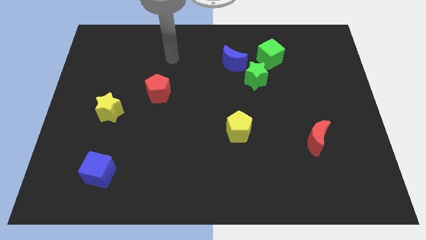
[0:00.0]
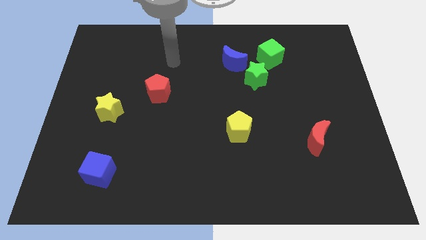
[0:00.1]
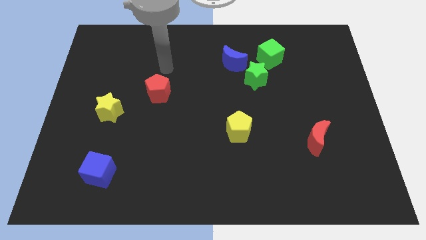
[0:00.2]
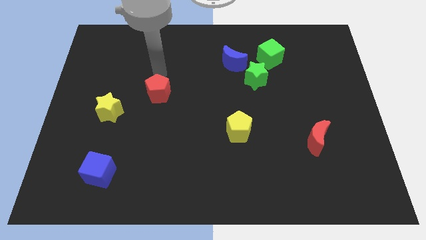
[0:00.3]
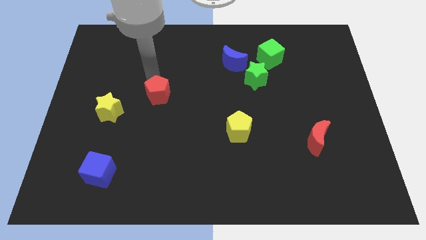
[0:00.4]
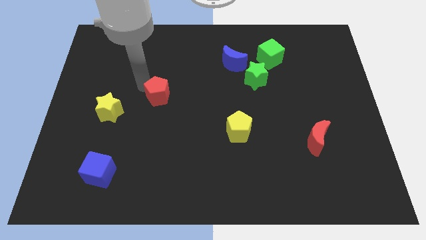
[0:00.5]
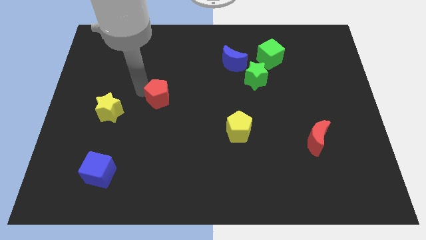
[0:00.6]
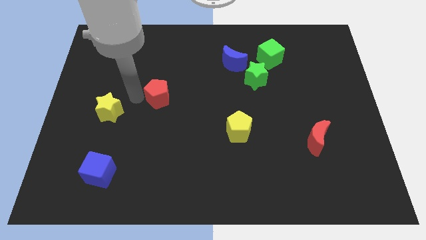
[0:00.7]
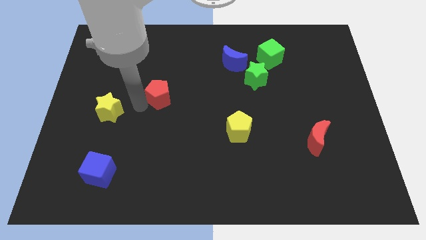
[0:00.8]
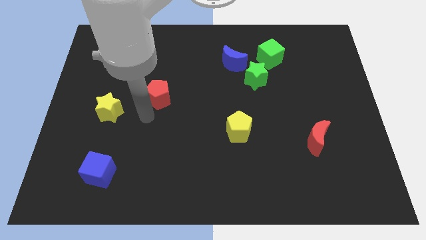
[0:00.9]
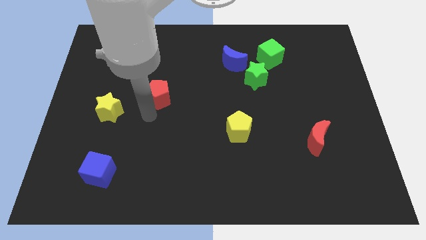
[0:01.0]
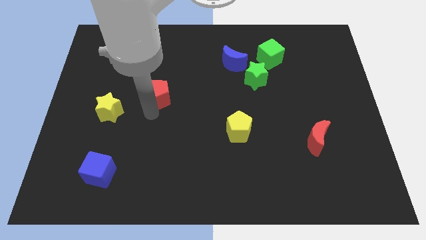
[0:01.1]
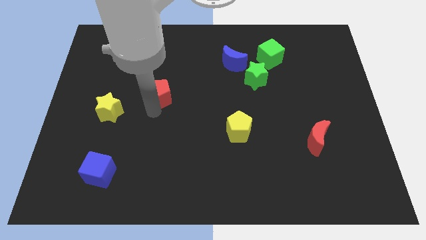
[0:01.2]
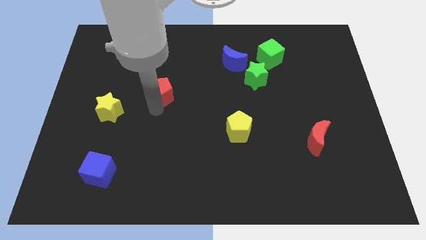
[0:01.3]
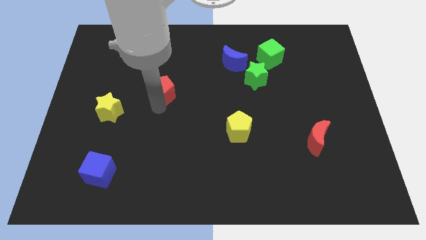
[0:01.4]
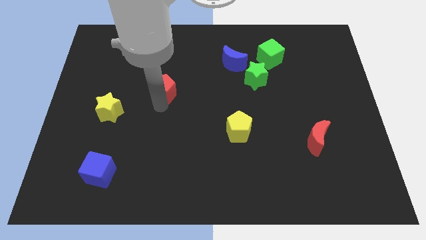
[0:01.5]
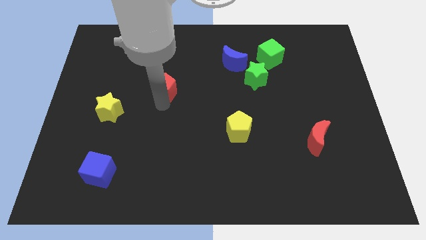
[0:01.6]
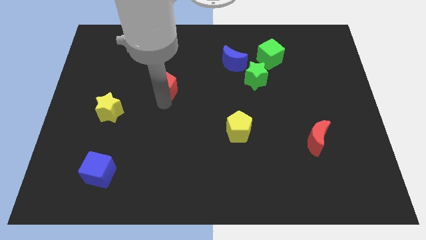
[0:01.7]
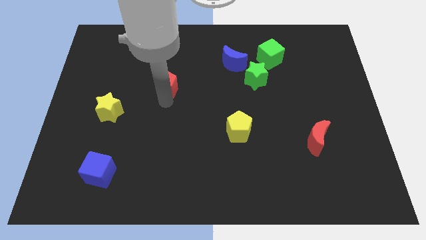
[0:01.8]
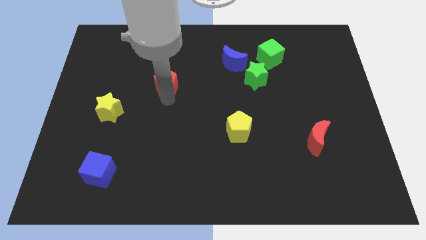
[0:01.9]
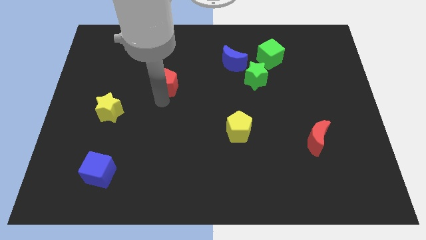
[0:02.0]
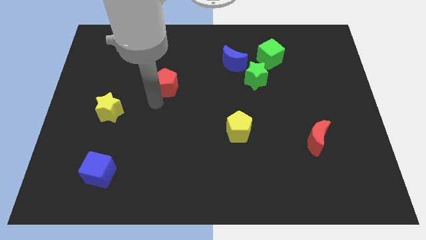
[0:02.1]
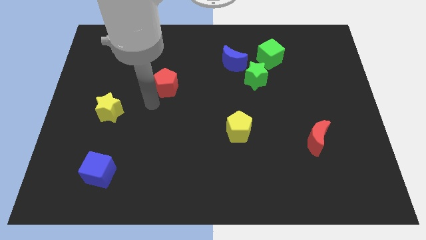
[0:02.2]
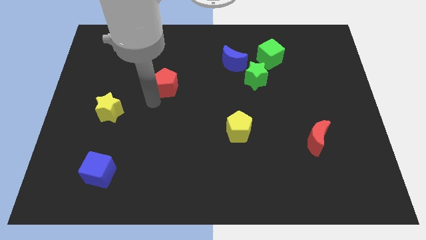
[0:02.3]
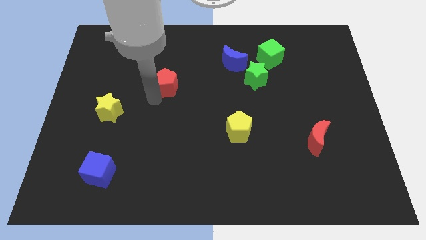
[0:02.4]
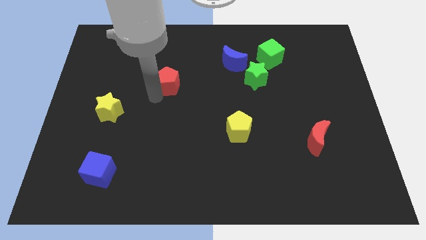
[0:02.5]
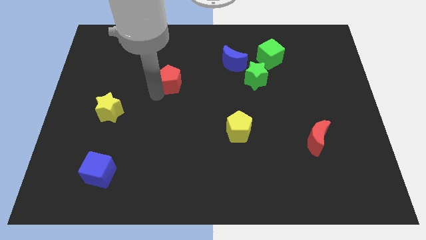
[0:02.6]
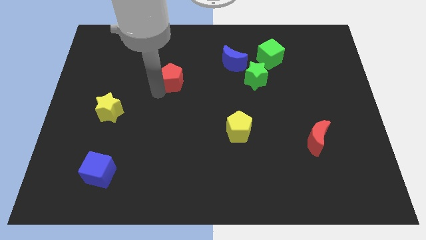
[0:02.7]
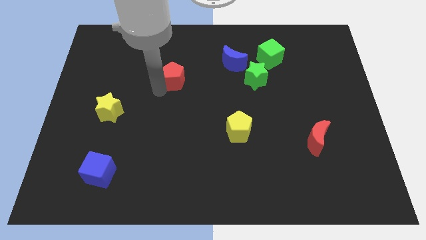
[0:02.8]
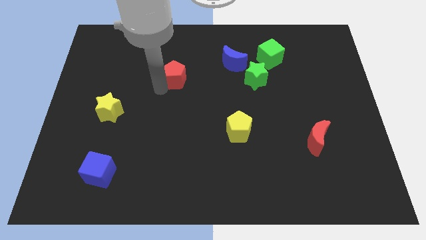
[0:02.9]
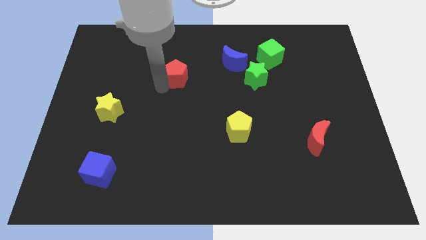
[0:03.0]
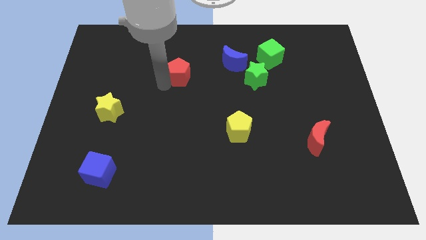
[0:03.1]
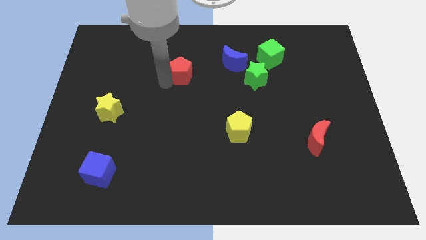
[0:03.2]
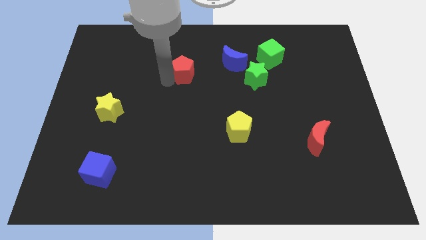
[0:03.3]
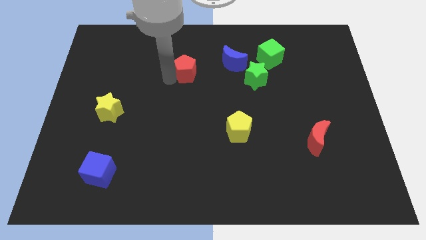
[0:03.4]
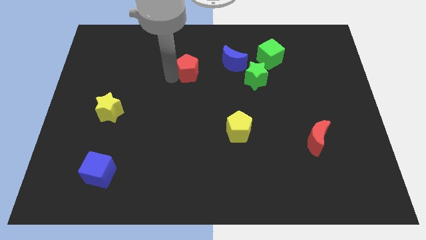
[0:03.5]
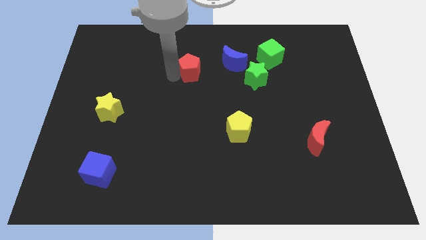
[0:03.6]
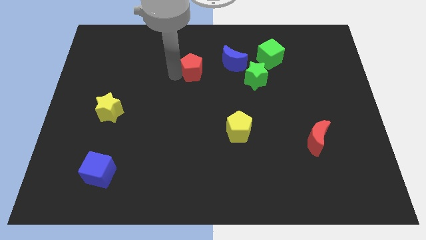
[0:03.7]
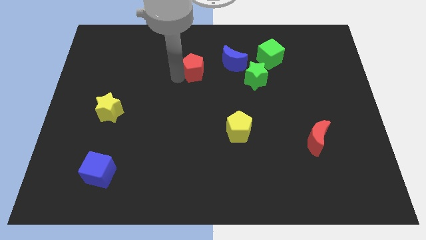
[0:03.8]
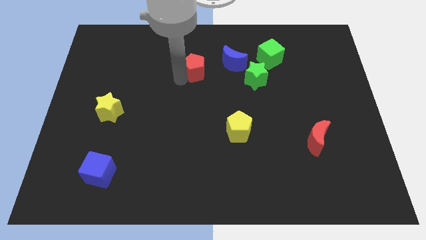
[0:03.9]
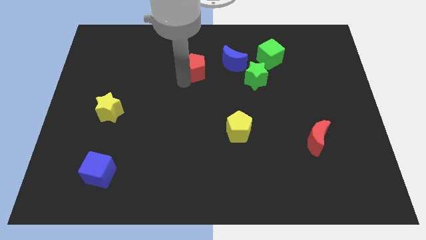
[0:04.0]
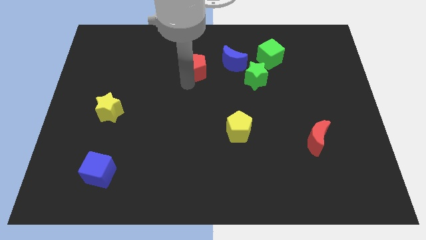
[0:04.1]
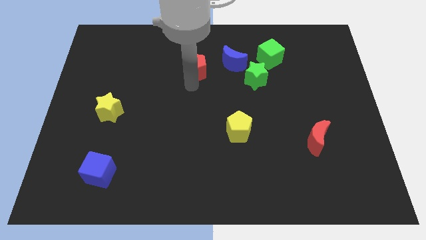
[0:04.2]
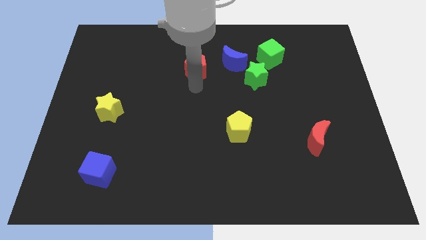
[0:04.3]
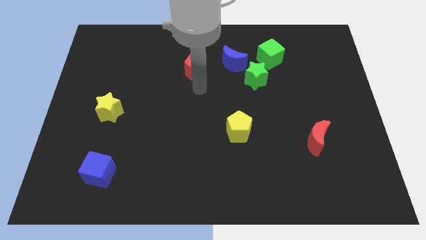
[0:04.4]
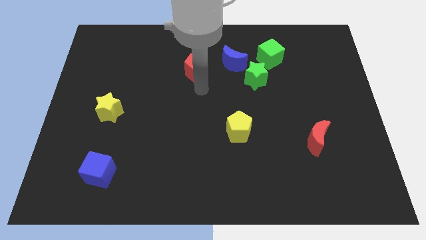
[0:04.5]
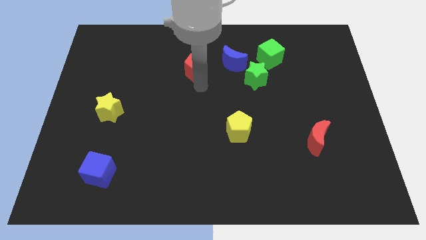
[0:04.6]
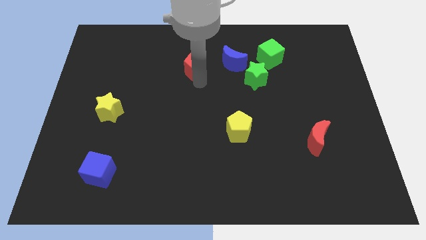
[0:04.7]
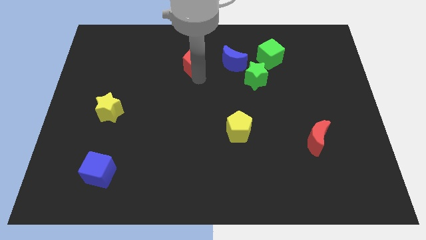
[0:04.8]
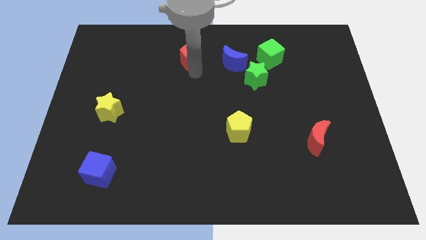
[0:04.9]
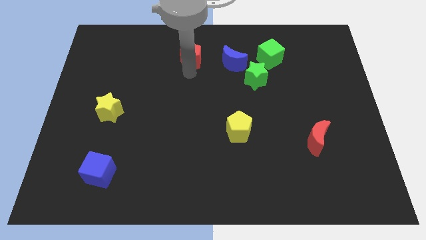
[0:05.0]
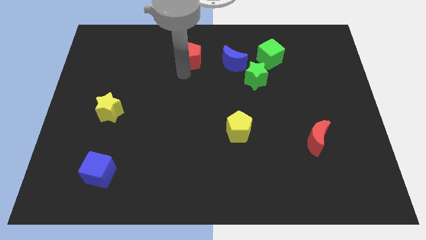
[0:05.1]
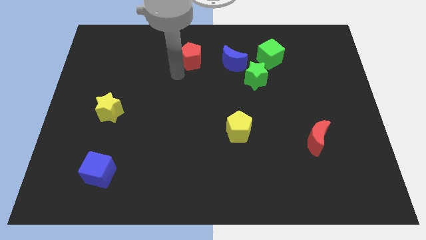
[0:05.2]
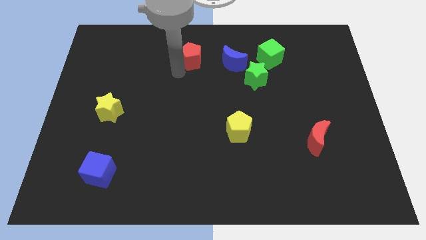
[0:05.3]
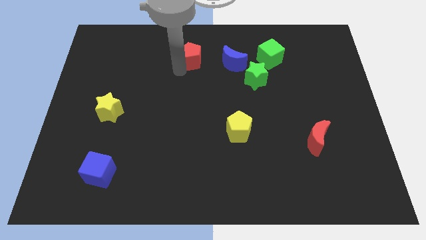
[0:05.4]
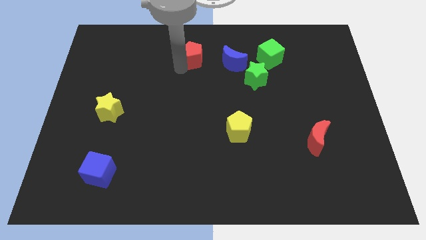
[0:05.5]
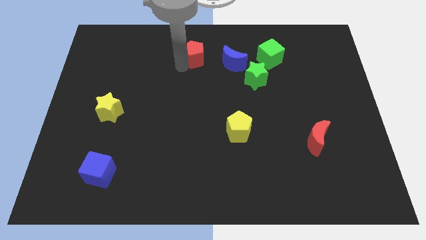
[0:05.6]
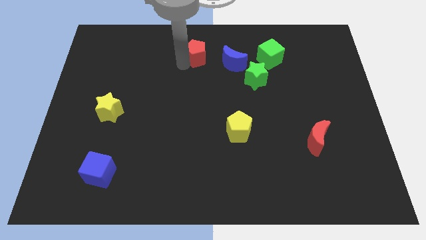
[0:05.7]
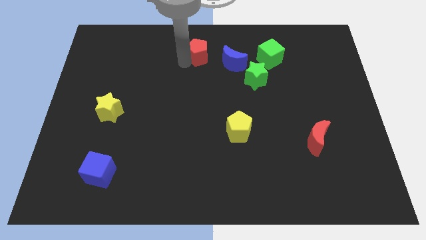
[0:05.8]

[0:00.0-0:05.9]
move the red pentagon to the top
